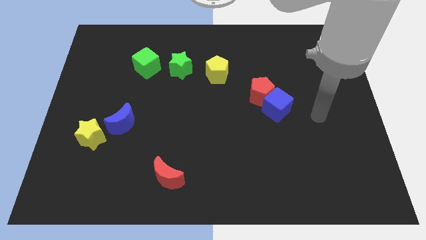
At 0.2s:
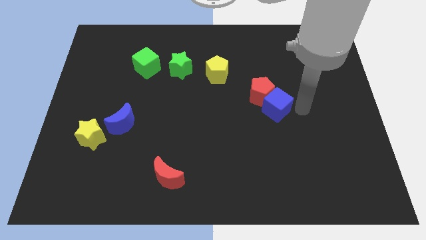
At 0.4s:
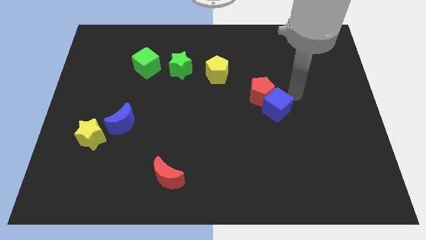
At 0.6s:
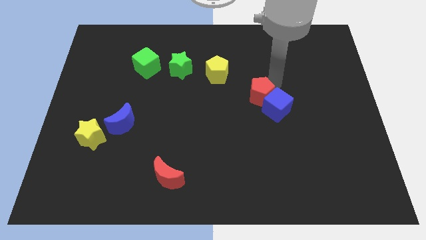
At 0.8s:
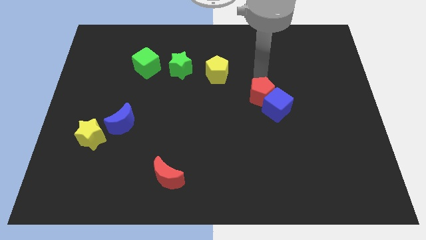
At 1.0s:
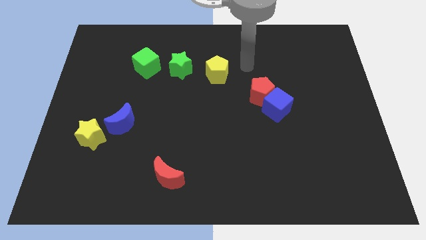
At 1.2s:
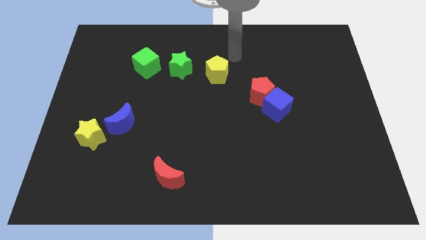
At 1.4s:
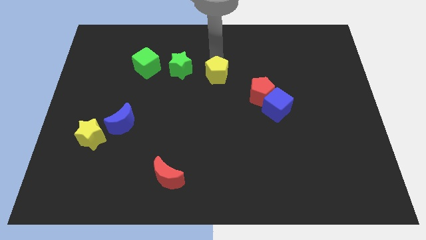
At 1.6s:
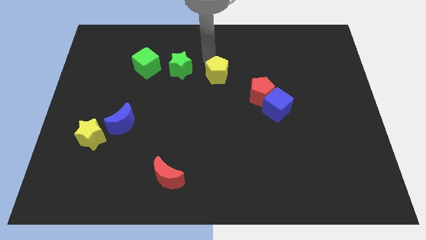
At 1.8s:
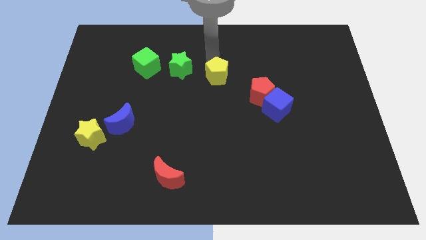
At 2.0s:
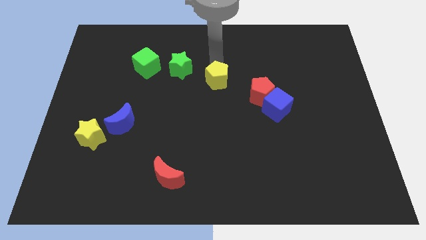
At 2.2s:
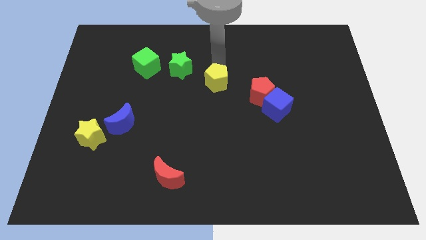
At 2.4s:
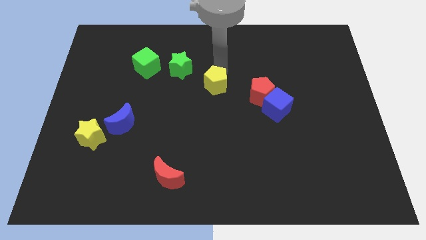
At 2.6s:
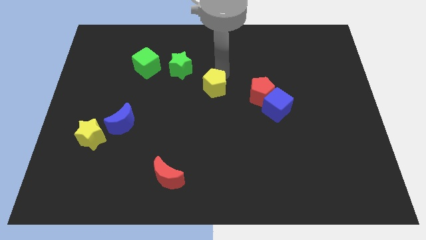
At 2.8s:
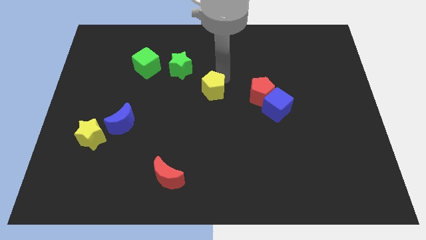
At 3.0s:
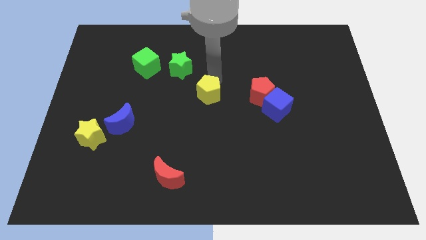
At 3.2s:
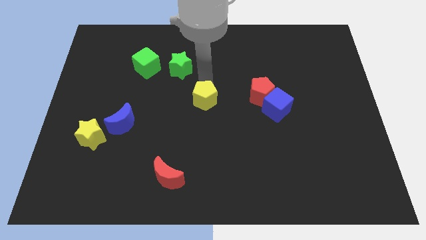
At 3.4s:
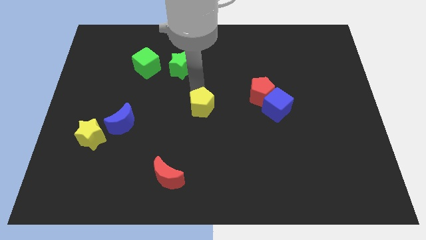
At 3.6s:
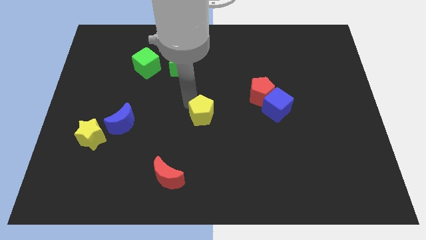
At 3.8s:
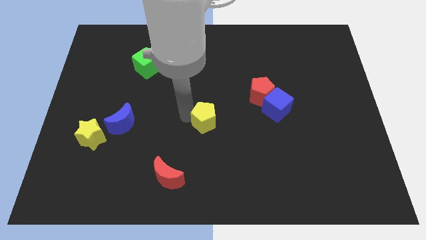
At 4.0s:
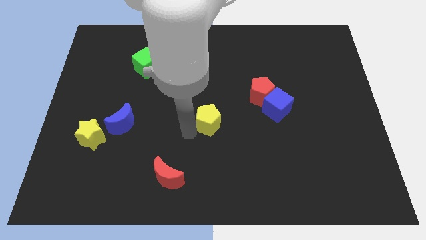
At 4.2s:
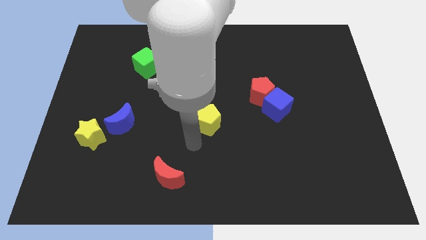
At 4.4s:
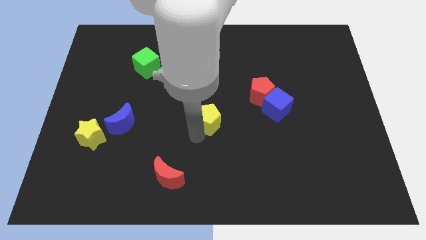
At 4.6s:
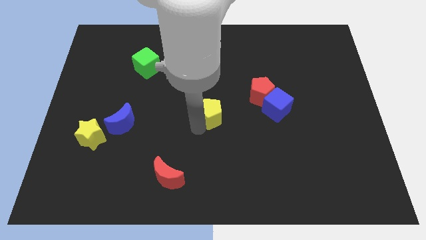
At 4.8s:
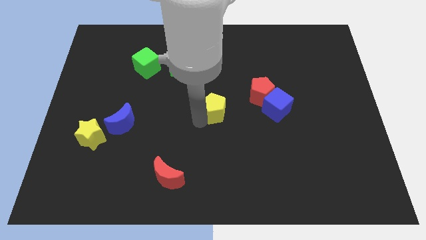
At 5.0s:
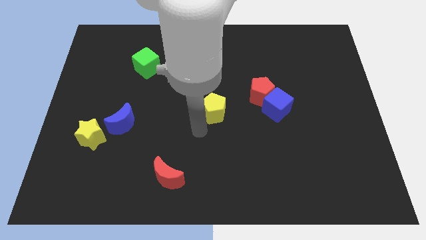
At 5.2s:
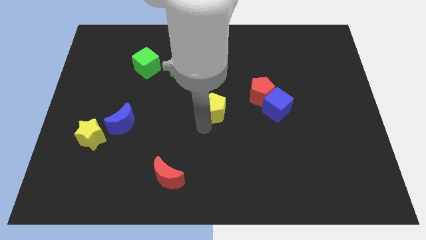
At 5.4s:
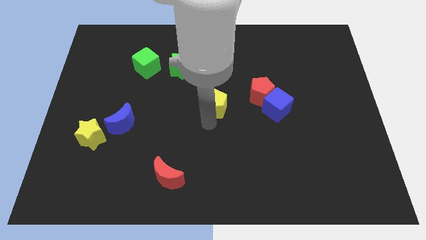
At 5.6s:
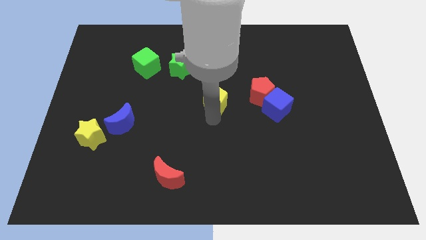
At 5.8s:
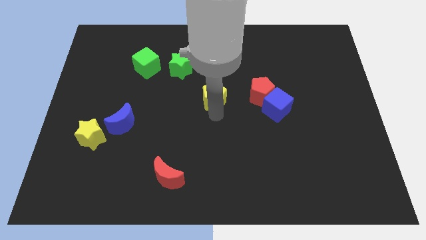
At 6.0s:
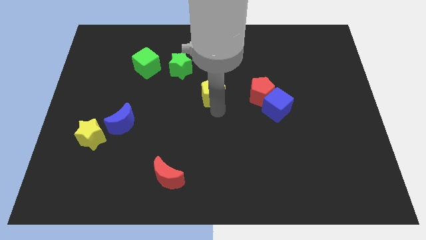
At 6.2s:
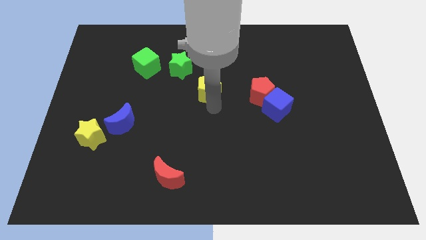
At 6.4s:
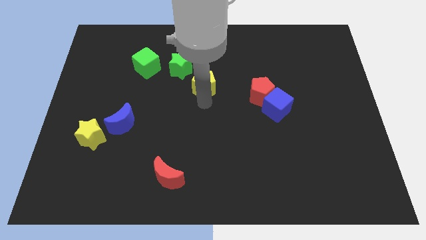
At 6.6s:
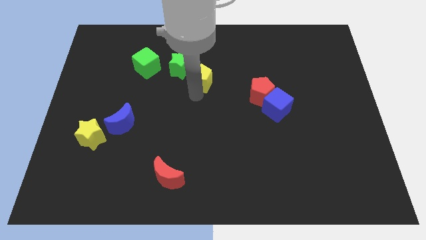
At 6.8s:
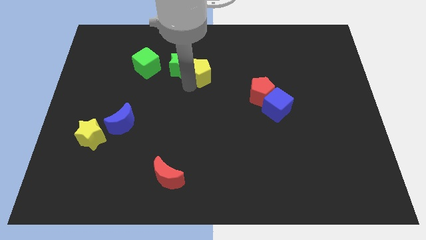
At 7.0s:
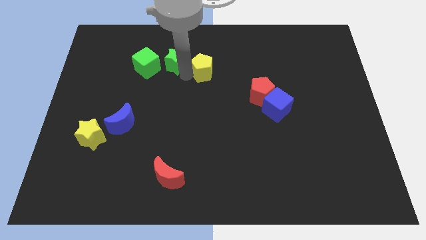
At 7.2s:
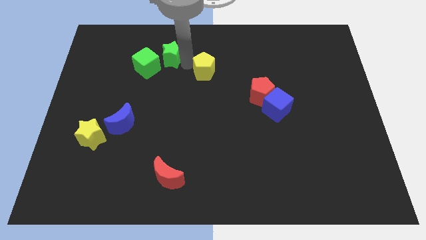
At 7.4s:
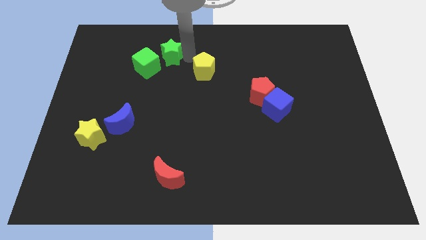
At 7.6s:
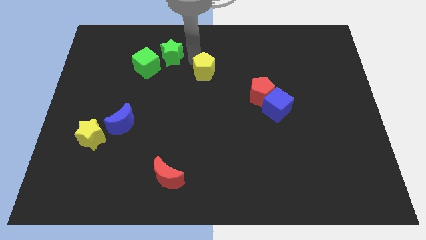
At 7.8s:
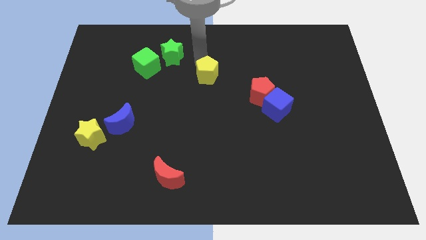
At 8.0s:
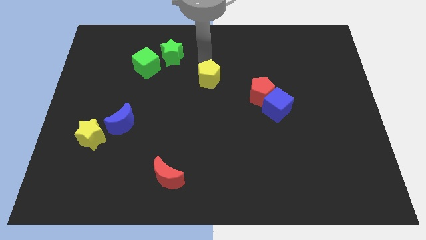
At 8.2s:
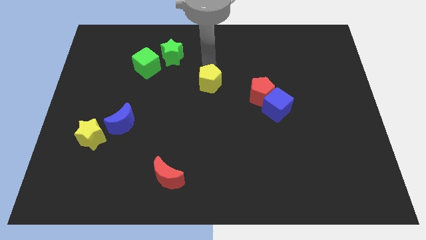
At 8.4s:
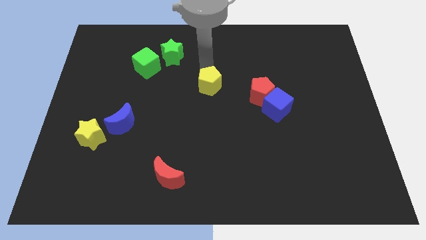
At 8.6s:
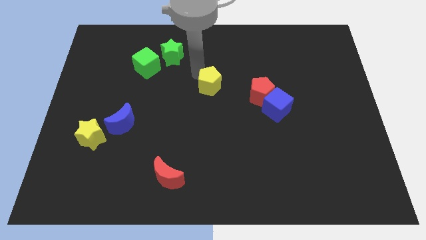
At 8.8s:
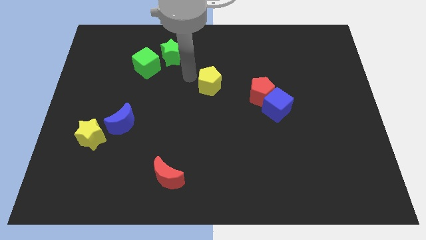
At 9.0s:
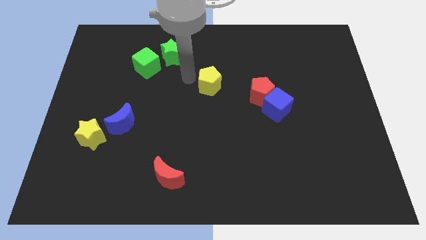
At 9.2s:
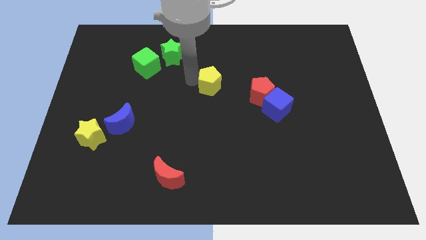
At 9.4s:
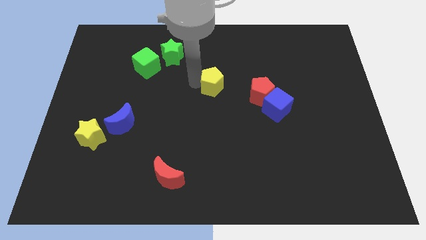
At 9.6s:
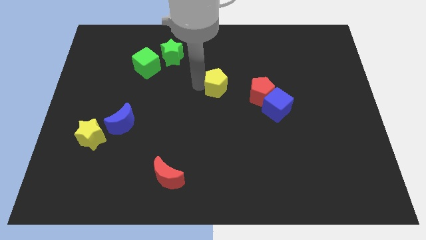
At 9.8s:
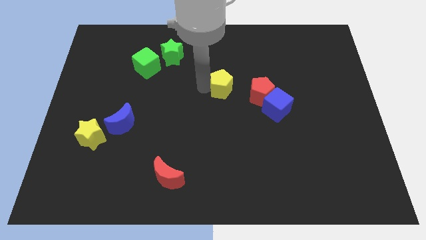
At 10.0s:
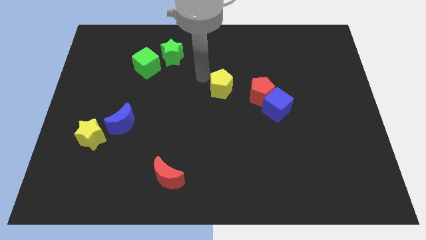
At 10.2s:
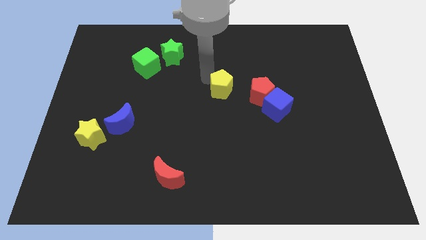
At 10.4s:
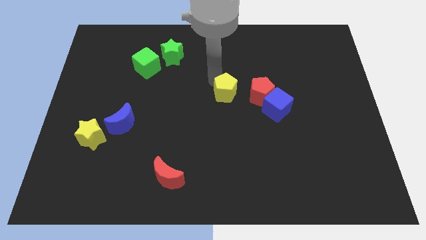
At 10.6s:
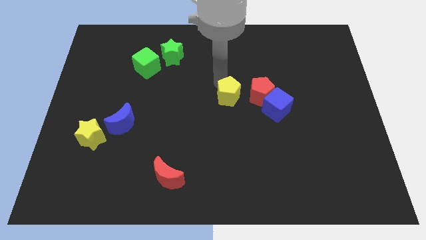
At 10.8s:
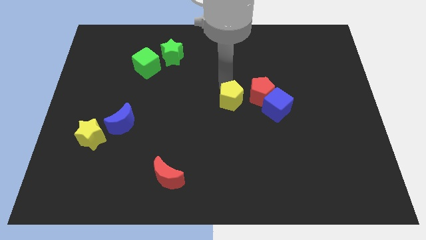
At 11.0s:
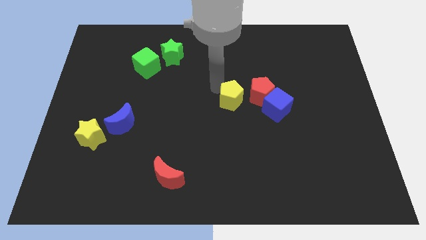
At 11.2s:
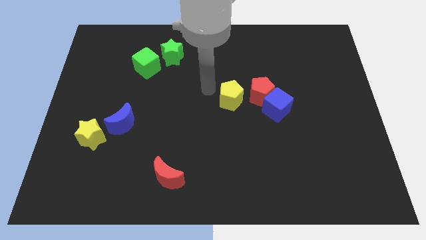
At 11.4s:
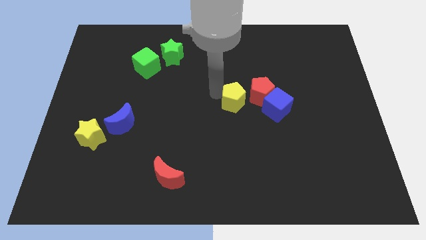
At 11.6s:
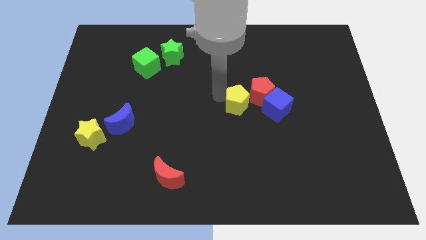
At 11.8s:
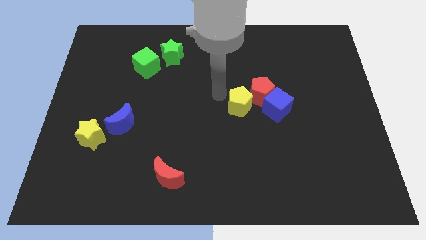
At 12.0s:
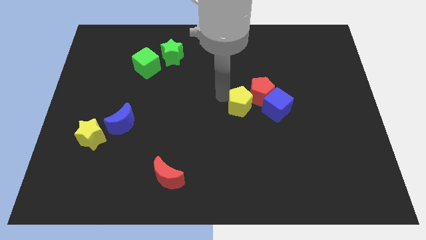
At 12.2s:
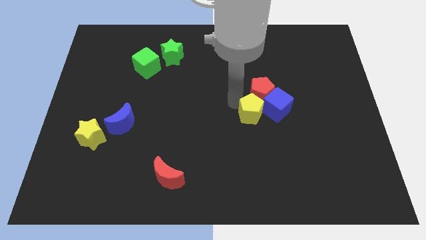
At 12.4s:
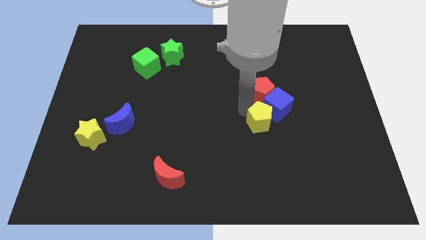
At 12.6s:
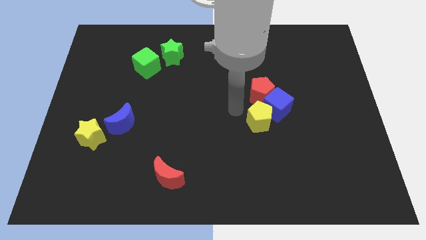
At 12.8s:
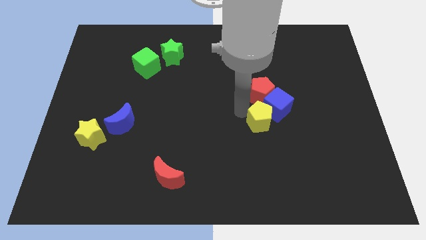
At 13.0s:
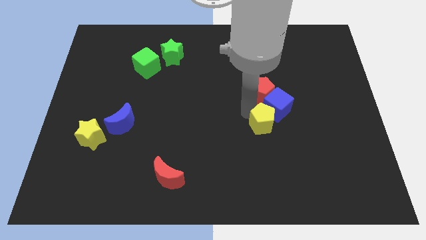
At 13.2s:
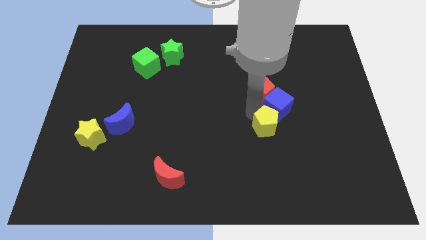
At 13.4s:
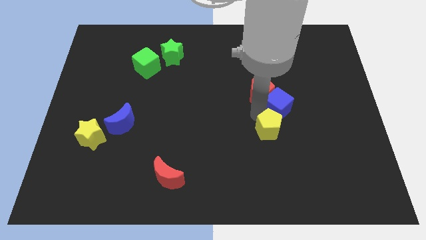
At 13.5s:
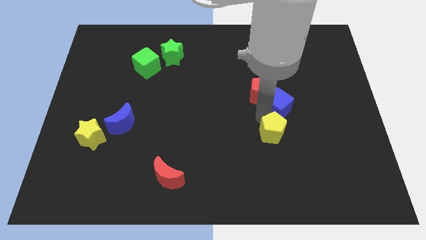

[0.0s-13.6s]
move the yellow pentagon down and right

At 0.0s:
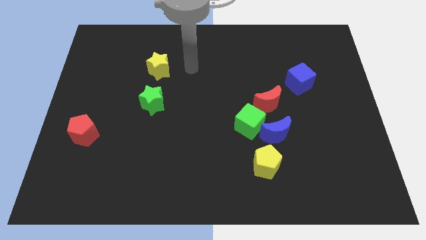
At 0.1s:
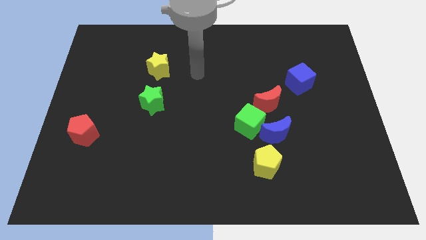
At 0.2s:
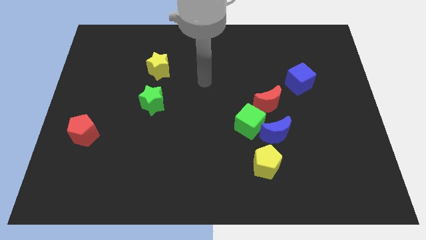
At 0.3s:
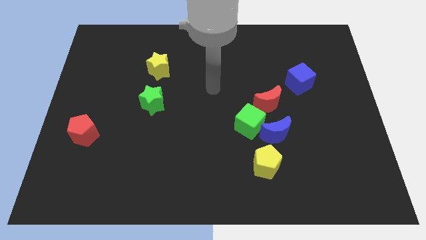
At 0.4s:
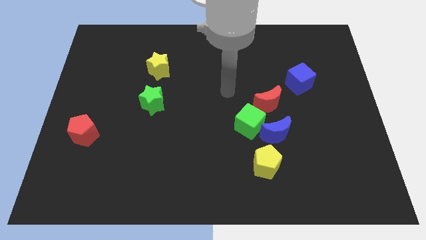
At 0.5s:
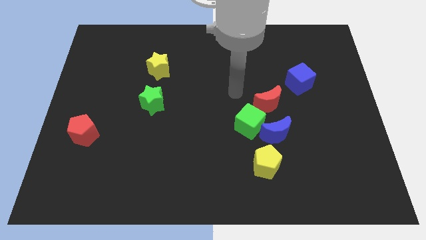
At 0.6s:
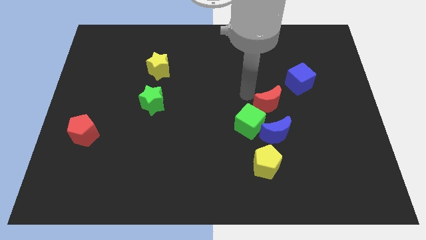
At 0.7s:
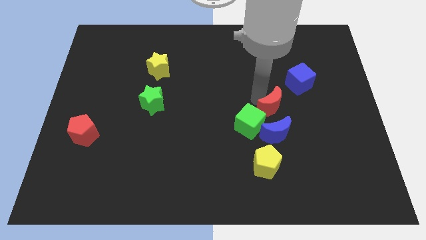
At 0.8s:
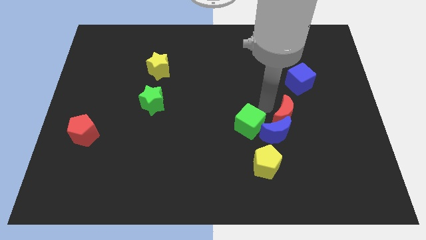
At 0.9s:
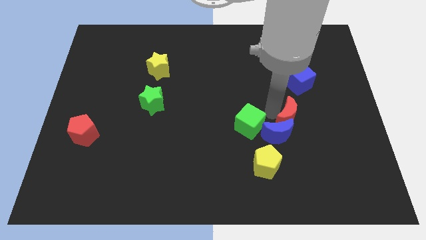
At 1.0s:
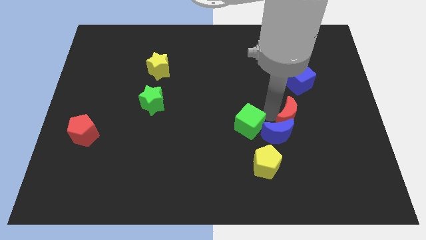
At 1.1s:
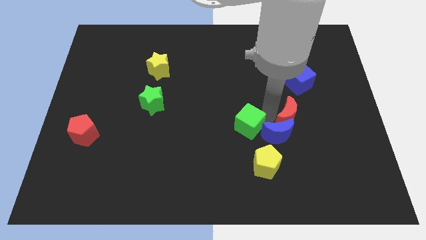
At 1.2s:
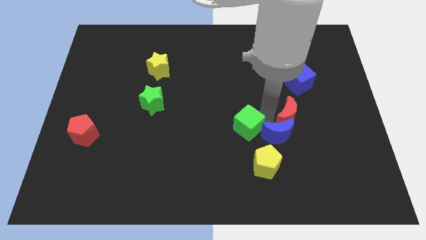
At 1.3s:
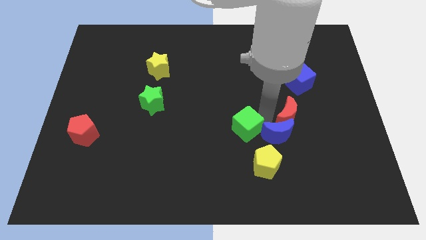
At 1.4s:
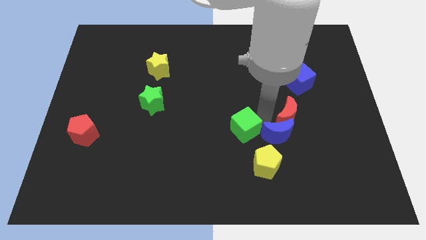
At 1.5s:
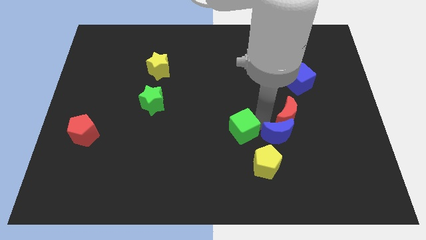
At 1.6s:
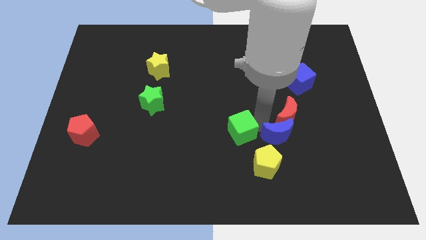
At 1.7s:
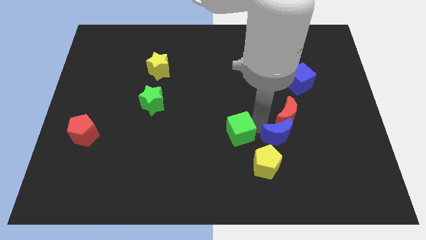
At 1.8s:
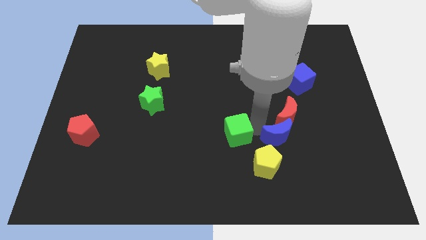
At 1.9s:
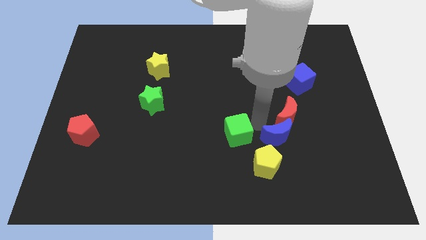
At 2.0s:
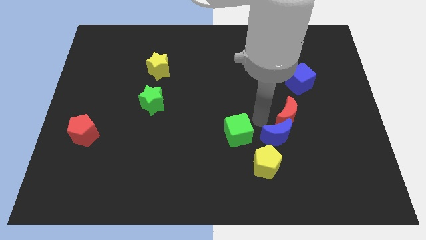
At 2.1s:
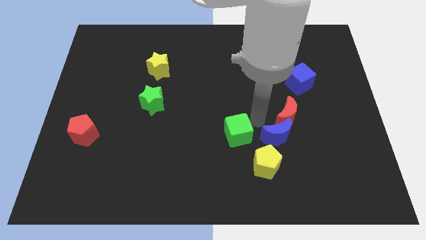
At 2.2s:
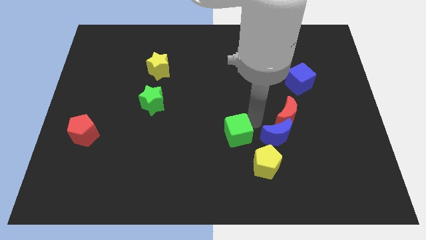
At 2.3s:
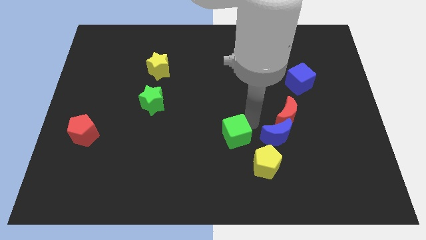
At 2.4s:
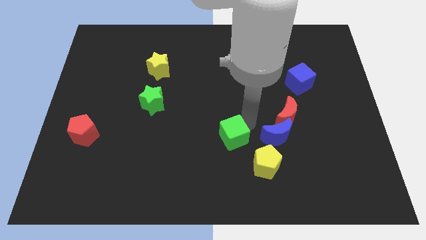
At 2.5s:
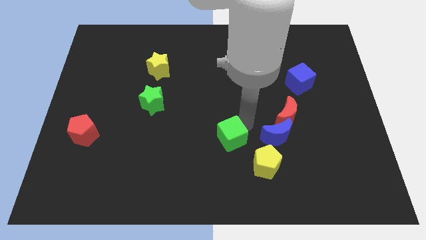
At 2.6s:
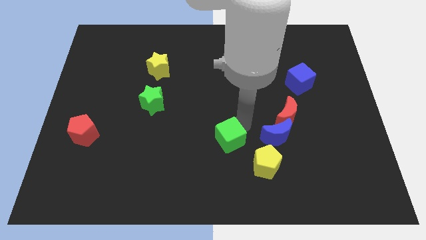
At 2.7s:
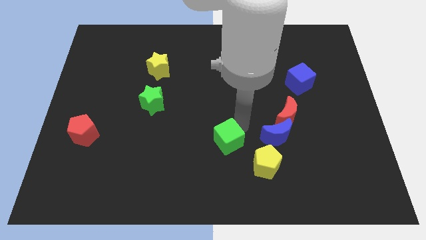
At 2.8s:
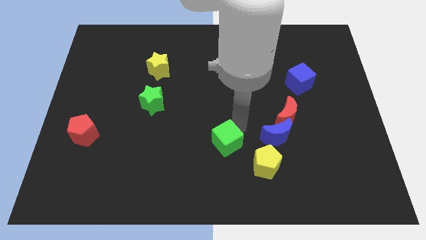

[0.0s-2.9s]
move the green cube a little bit downwards and to the left diagonally
